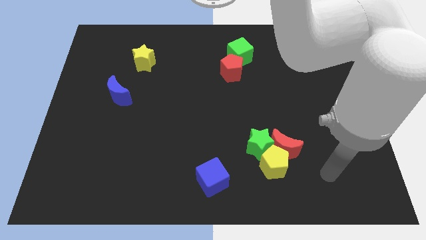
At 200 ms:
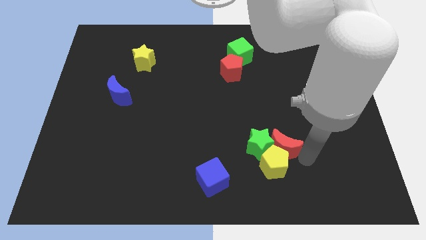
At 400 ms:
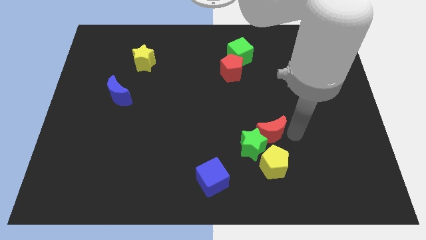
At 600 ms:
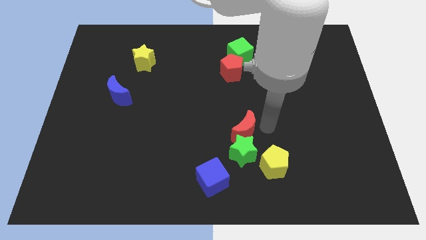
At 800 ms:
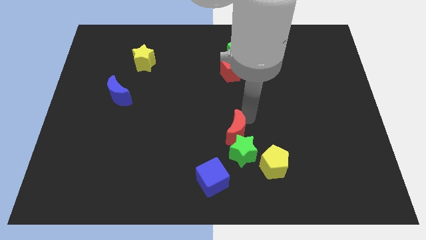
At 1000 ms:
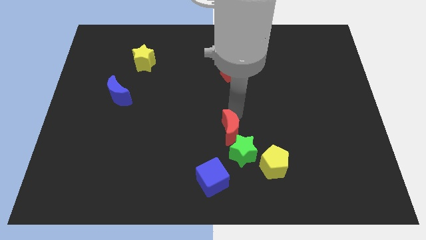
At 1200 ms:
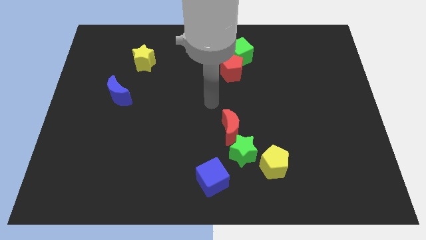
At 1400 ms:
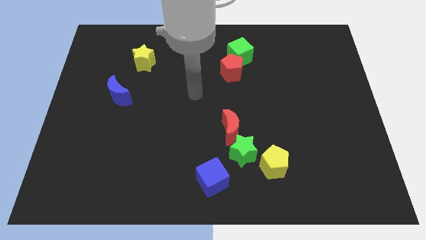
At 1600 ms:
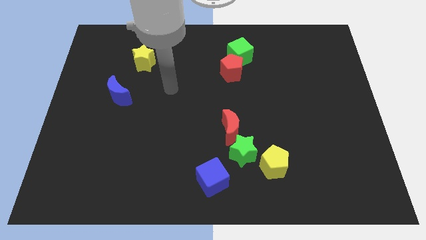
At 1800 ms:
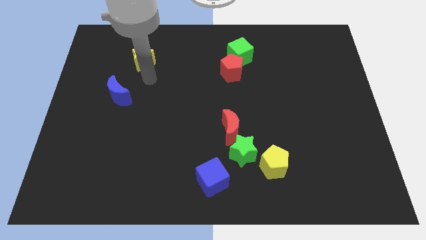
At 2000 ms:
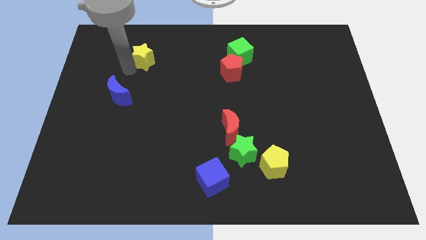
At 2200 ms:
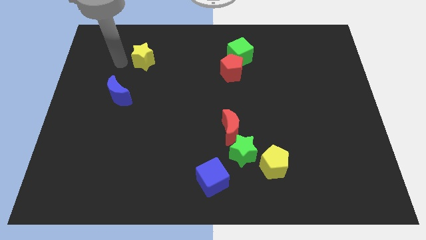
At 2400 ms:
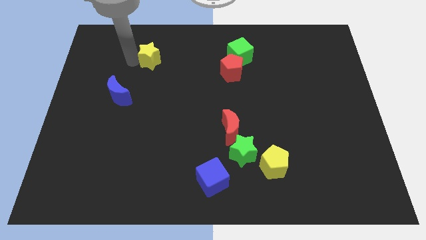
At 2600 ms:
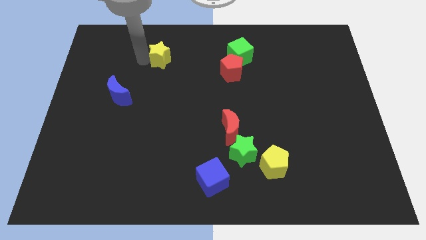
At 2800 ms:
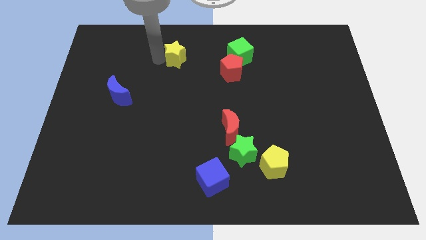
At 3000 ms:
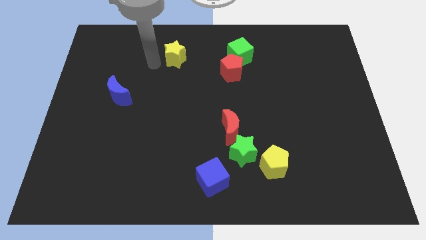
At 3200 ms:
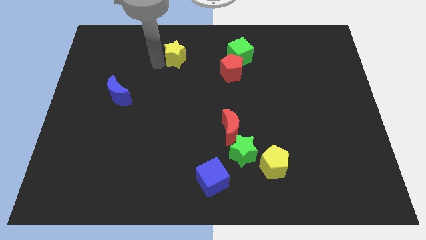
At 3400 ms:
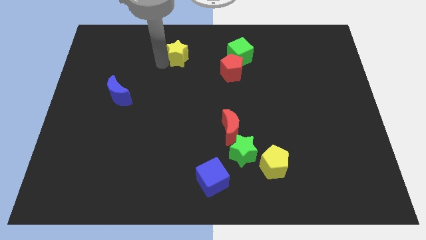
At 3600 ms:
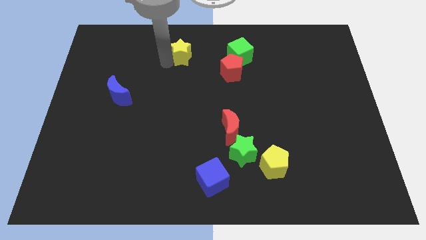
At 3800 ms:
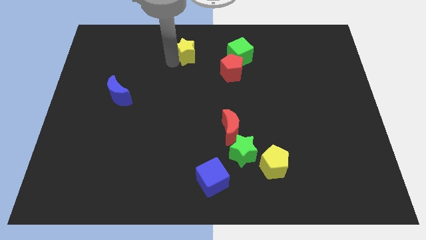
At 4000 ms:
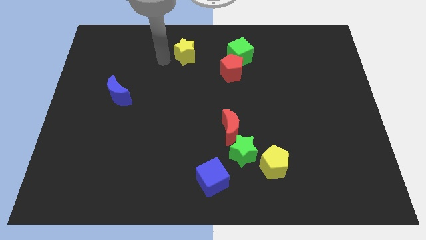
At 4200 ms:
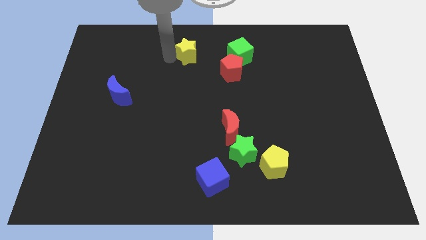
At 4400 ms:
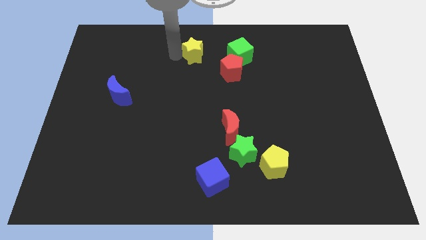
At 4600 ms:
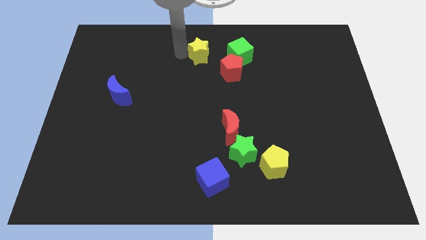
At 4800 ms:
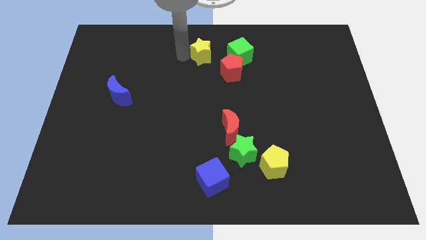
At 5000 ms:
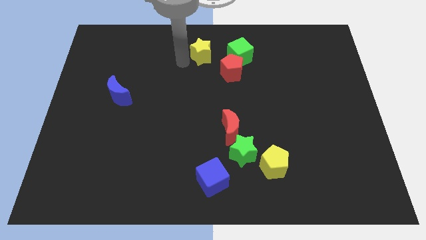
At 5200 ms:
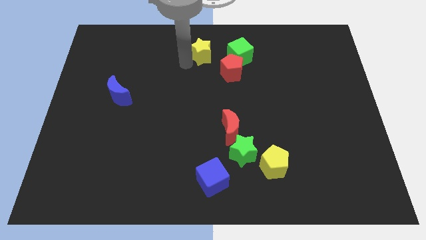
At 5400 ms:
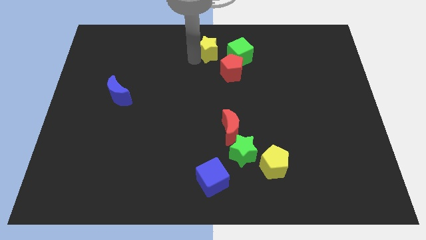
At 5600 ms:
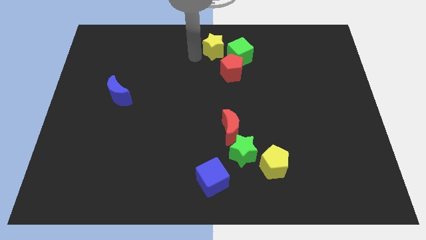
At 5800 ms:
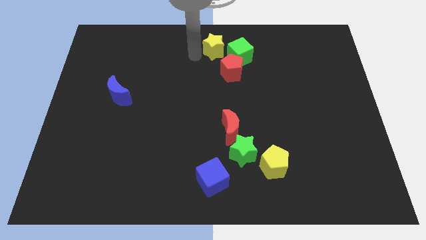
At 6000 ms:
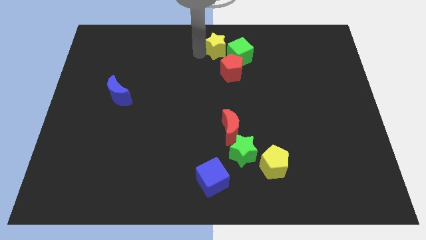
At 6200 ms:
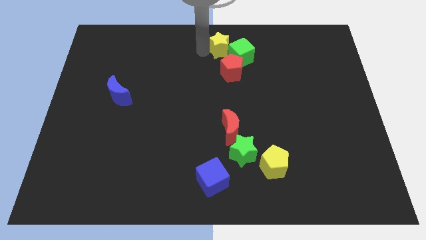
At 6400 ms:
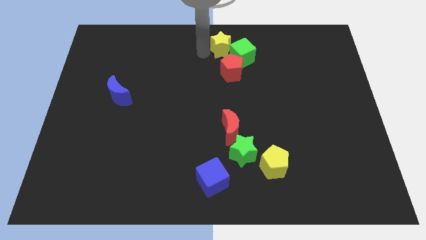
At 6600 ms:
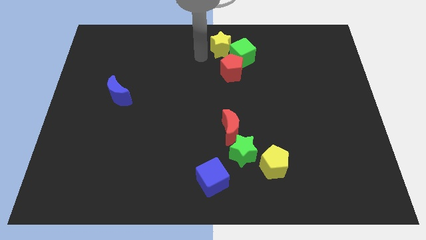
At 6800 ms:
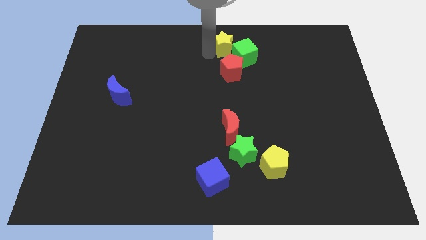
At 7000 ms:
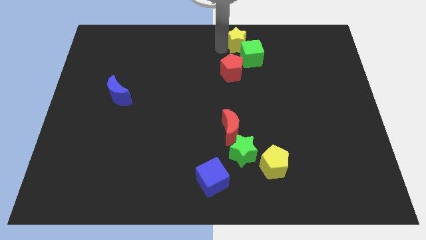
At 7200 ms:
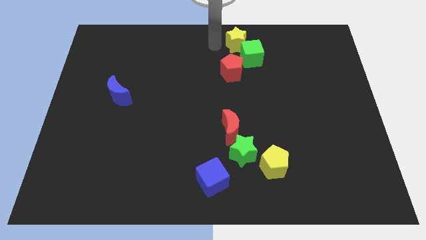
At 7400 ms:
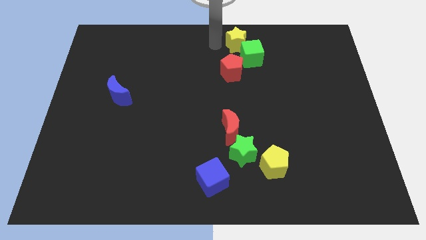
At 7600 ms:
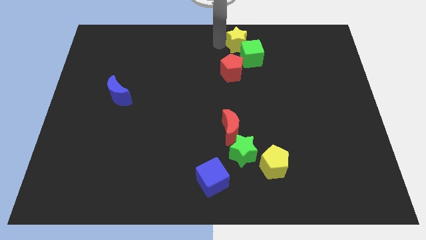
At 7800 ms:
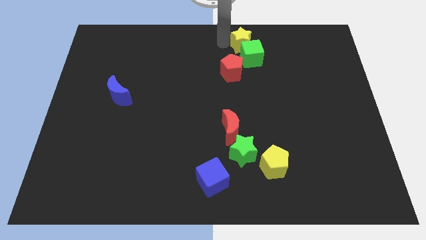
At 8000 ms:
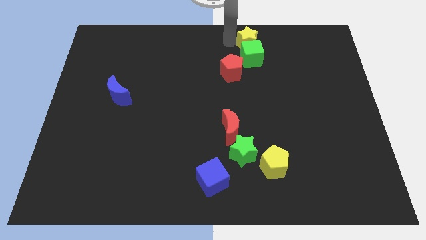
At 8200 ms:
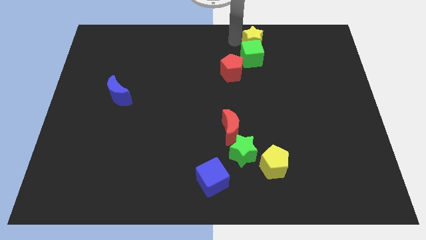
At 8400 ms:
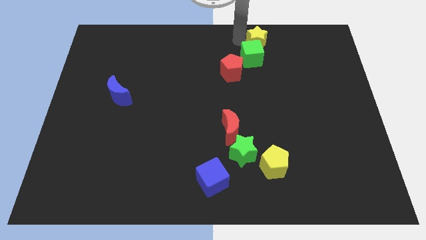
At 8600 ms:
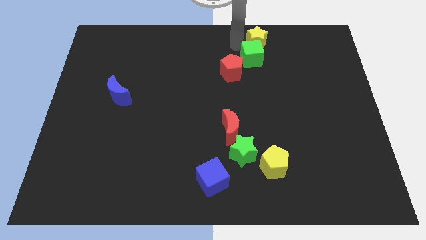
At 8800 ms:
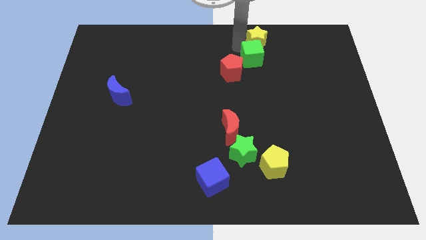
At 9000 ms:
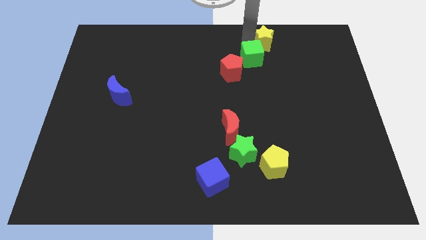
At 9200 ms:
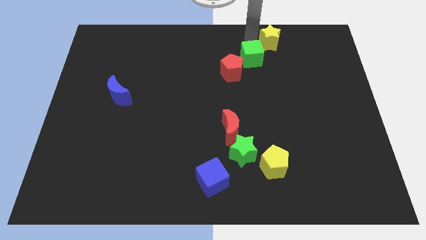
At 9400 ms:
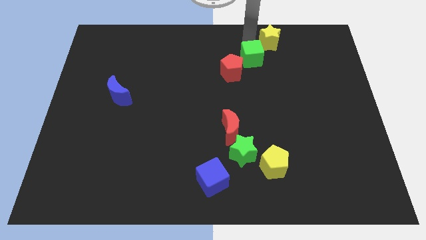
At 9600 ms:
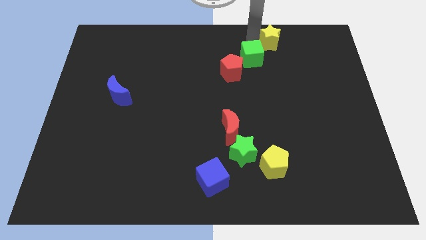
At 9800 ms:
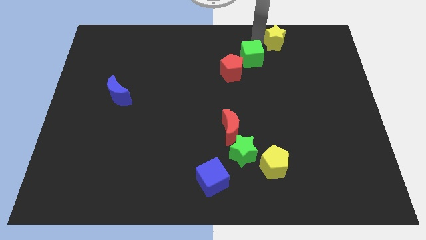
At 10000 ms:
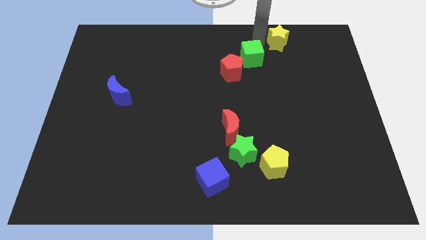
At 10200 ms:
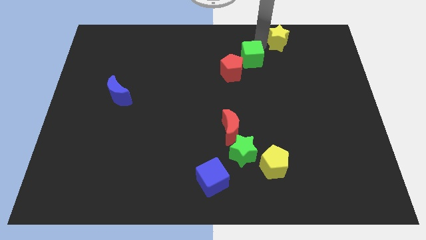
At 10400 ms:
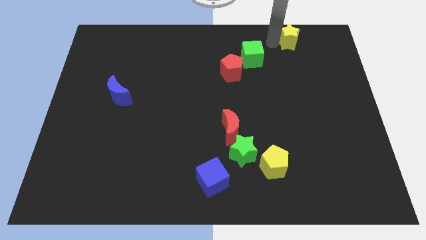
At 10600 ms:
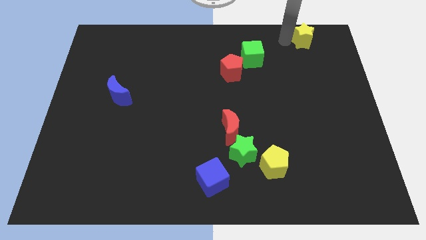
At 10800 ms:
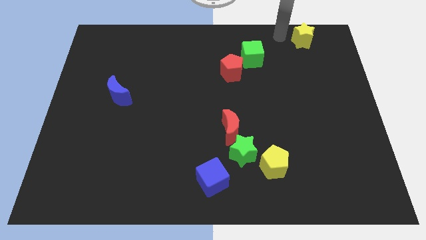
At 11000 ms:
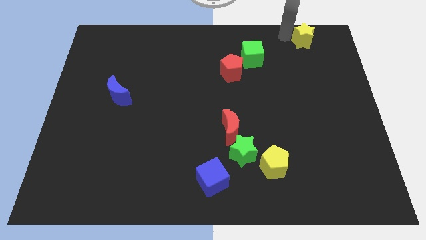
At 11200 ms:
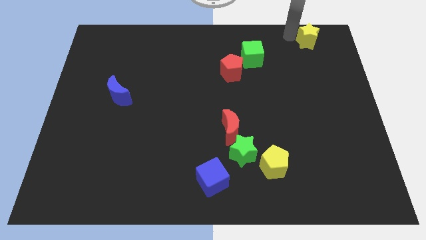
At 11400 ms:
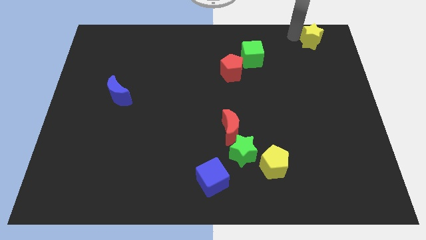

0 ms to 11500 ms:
push the yellow star to the top right
